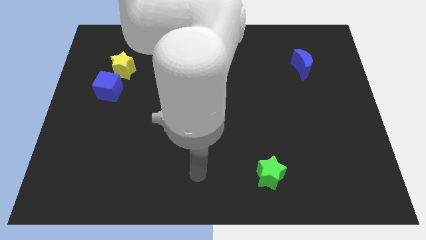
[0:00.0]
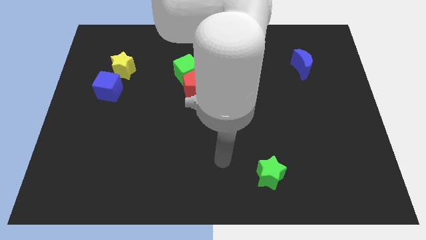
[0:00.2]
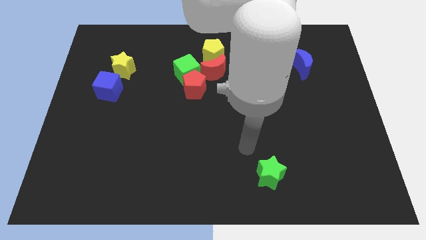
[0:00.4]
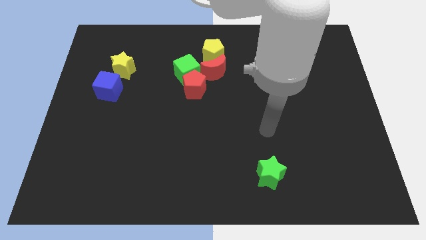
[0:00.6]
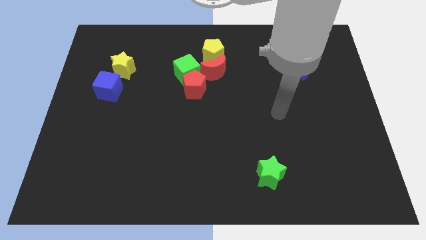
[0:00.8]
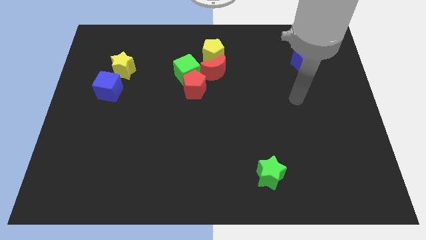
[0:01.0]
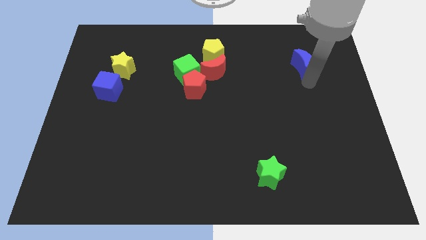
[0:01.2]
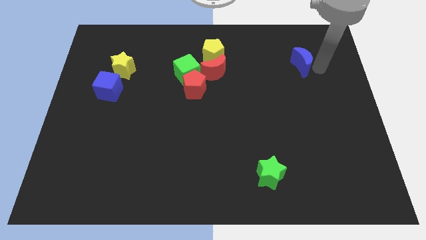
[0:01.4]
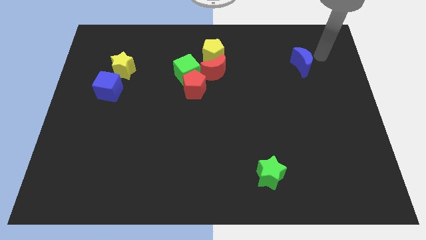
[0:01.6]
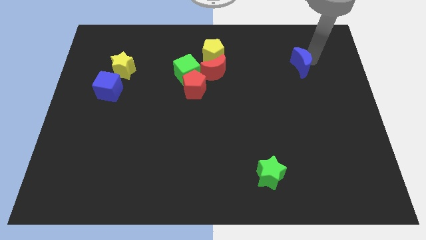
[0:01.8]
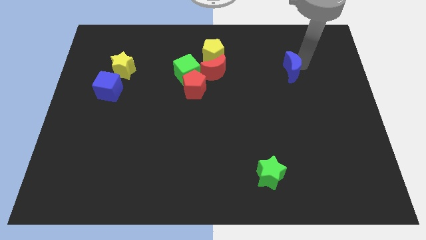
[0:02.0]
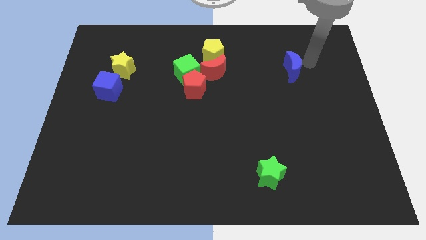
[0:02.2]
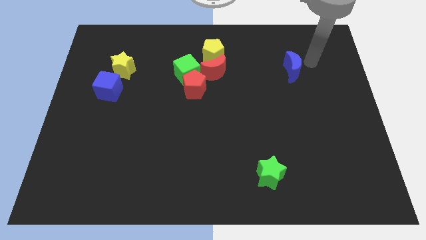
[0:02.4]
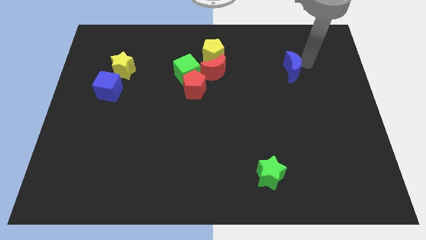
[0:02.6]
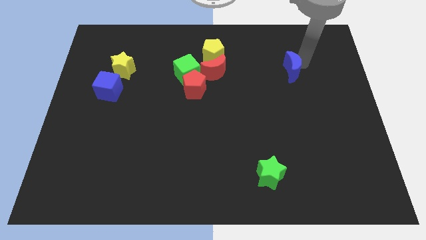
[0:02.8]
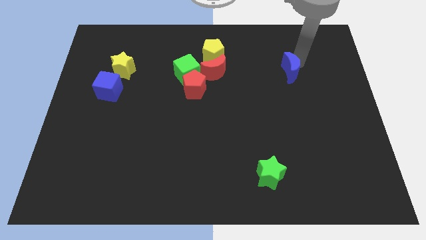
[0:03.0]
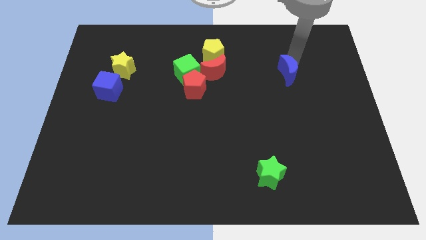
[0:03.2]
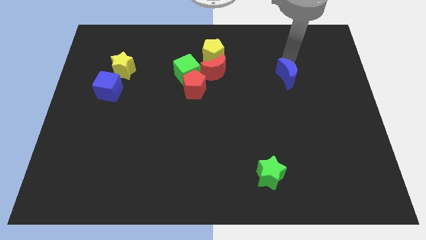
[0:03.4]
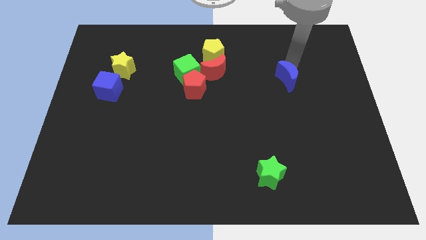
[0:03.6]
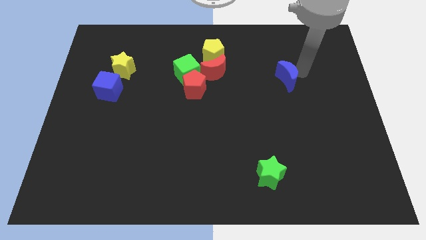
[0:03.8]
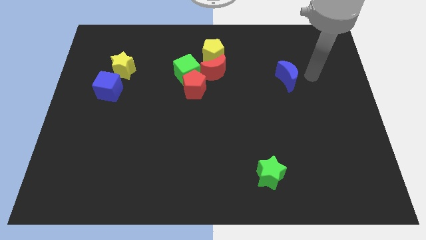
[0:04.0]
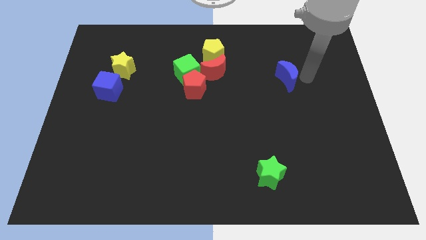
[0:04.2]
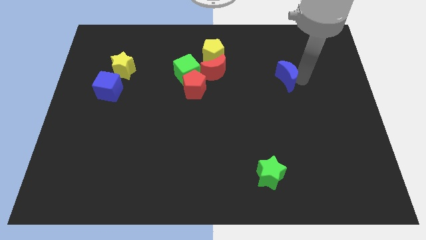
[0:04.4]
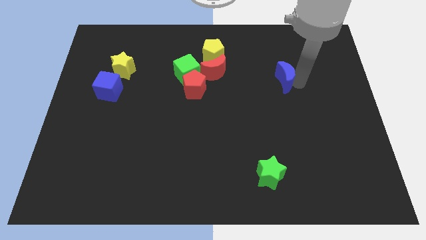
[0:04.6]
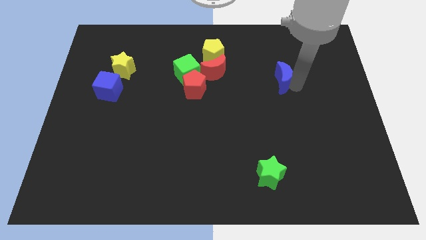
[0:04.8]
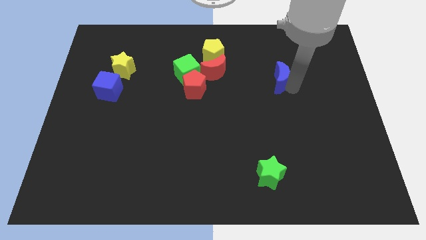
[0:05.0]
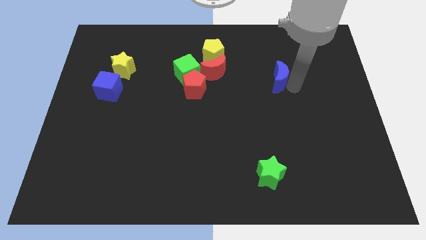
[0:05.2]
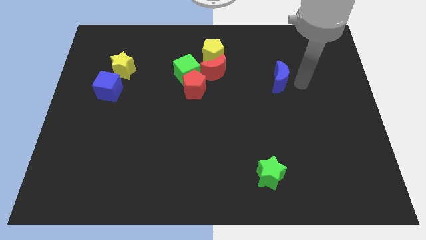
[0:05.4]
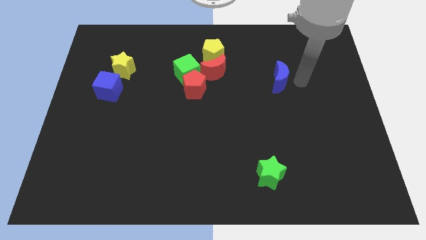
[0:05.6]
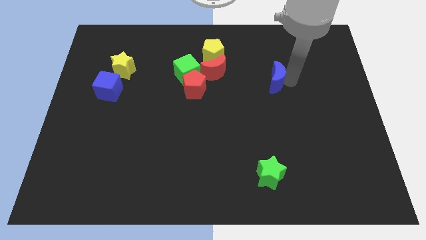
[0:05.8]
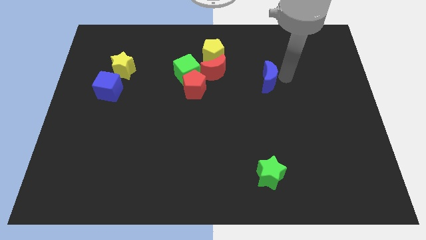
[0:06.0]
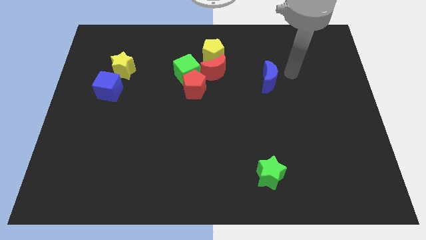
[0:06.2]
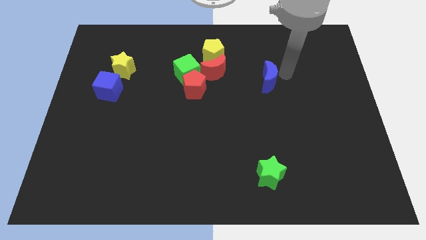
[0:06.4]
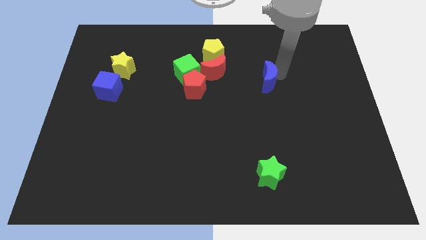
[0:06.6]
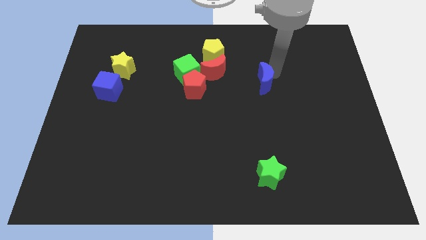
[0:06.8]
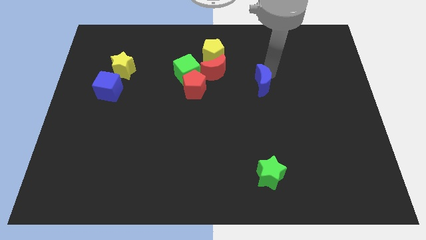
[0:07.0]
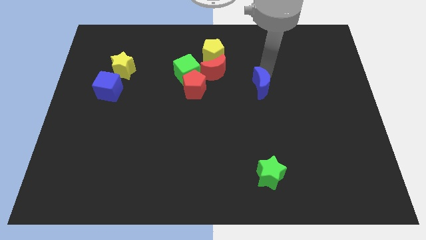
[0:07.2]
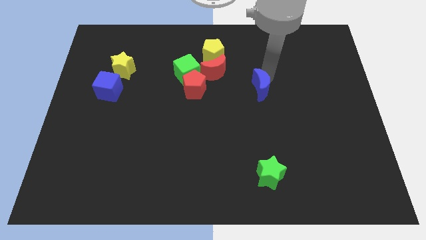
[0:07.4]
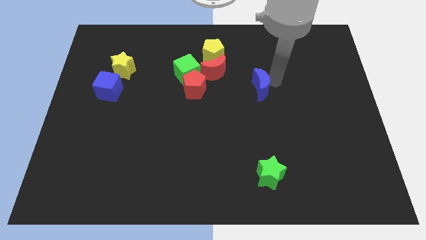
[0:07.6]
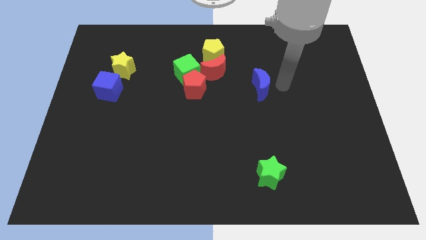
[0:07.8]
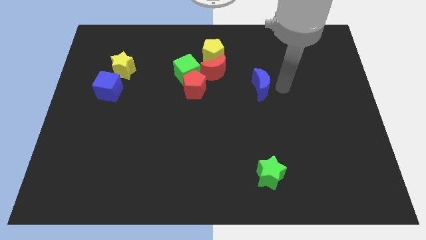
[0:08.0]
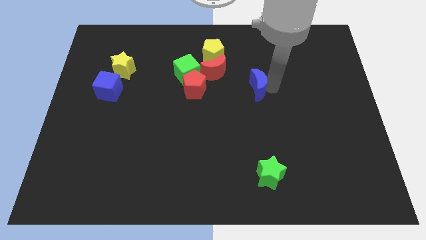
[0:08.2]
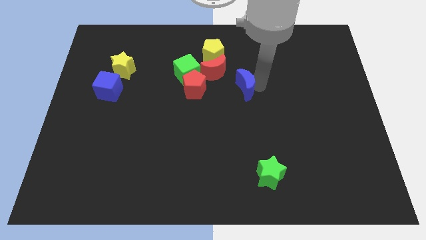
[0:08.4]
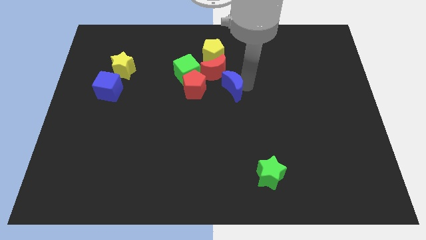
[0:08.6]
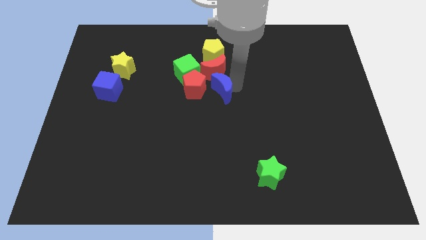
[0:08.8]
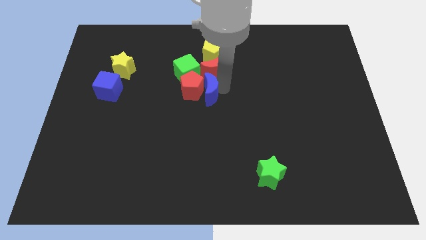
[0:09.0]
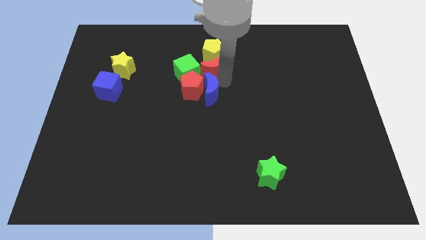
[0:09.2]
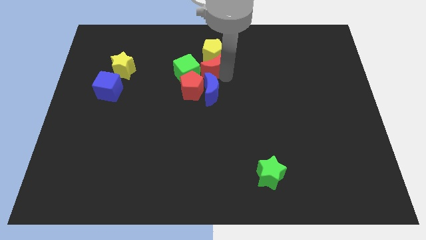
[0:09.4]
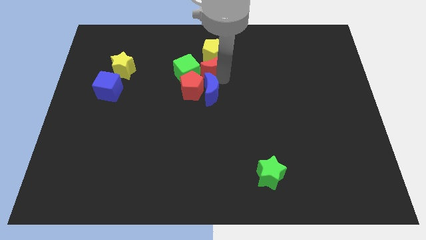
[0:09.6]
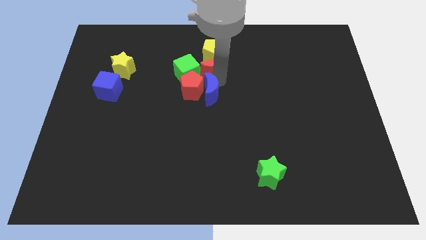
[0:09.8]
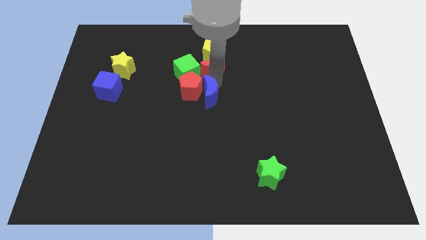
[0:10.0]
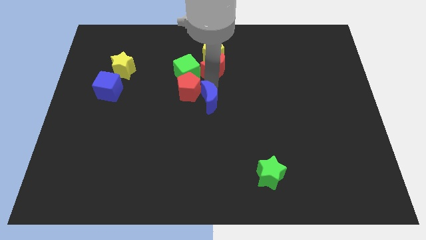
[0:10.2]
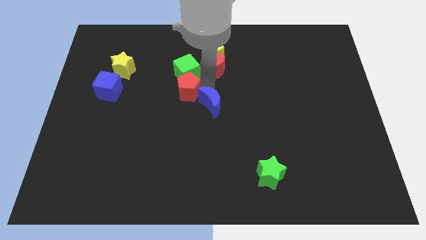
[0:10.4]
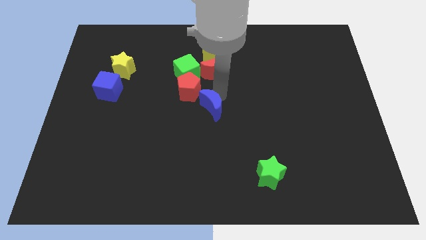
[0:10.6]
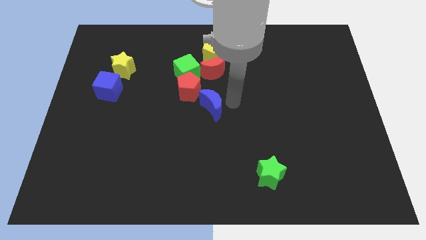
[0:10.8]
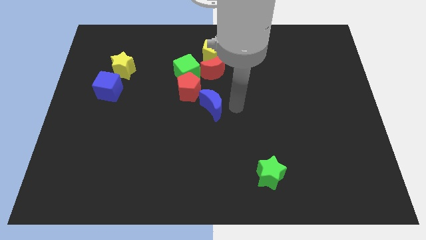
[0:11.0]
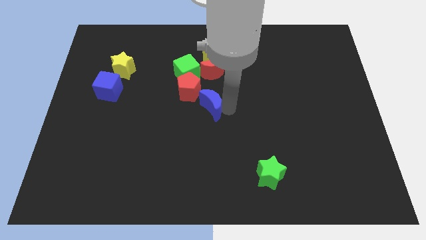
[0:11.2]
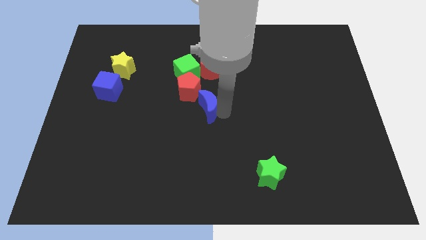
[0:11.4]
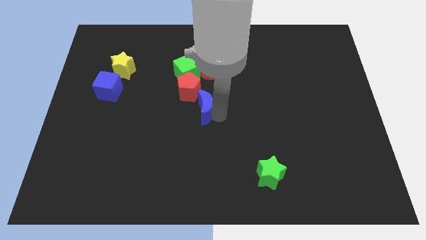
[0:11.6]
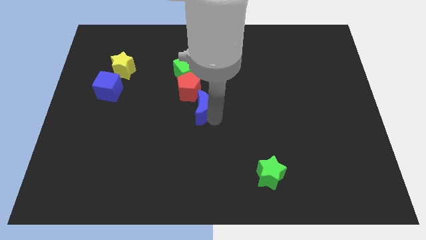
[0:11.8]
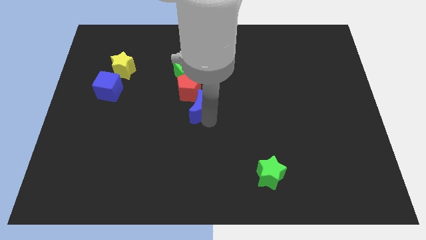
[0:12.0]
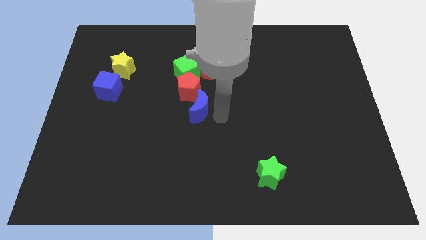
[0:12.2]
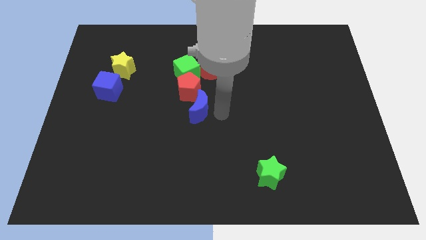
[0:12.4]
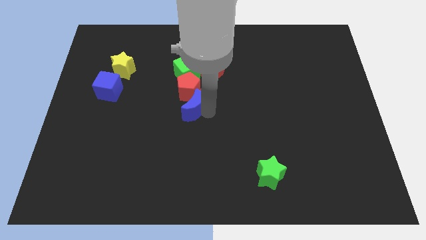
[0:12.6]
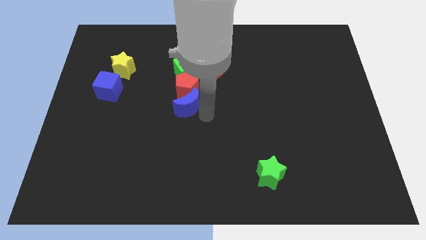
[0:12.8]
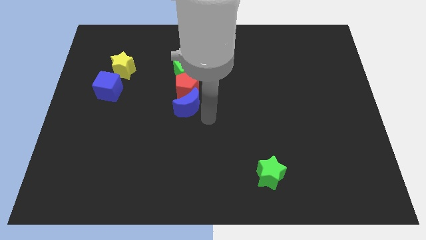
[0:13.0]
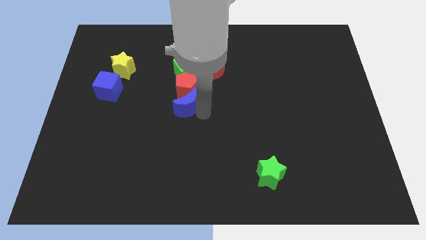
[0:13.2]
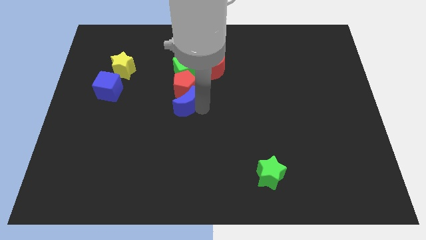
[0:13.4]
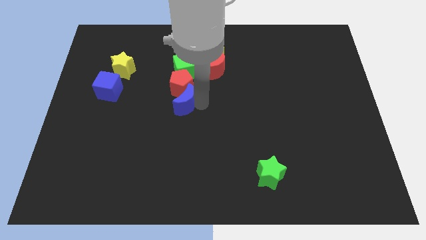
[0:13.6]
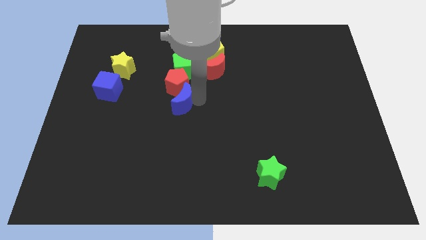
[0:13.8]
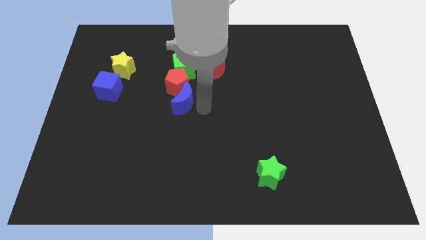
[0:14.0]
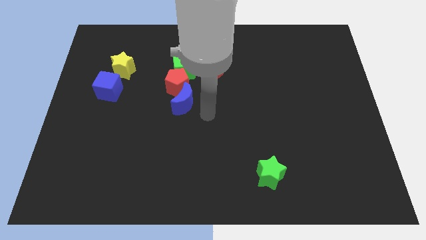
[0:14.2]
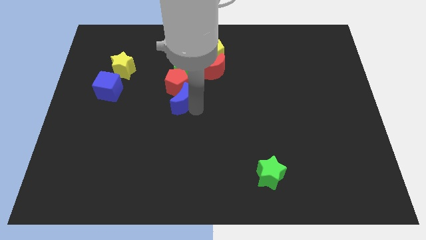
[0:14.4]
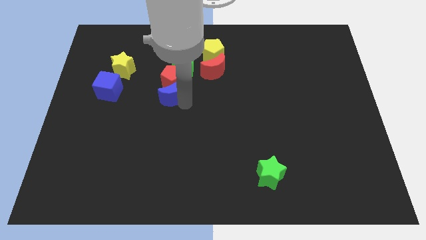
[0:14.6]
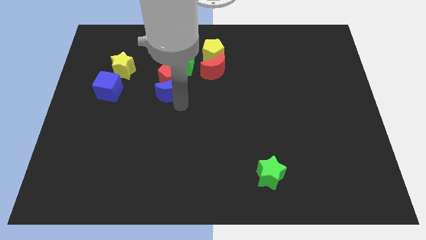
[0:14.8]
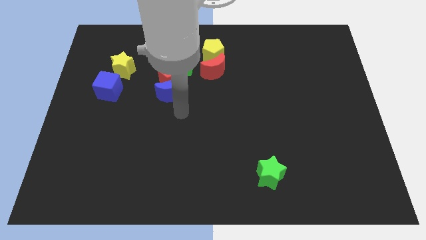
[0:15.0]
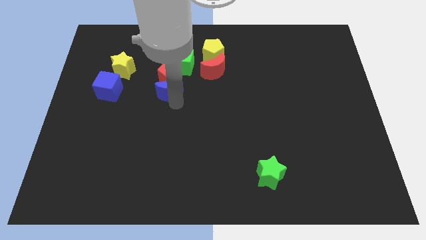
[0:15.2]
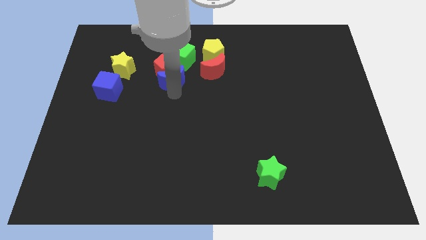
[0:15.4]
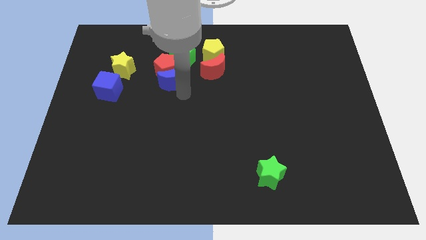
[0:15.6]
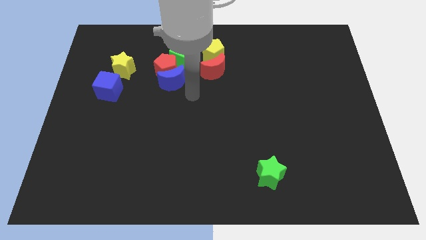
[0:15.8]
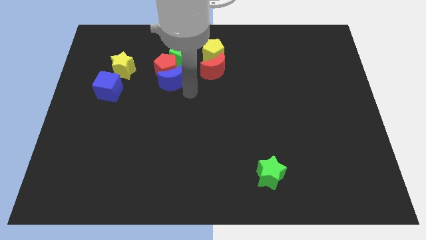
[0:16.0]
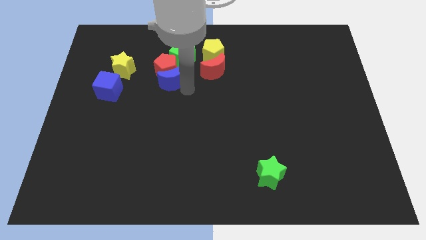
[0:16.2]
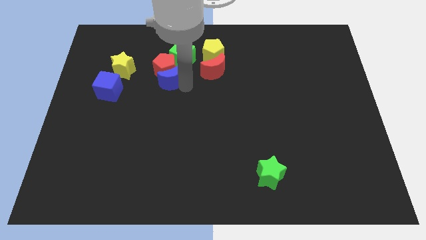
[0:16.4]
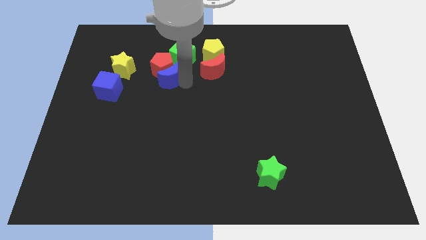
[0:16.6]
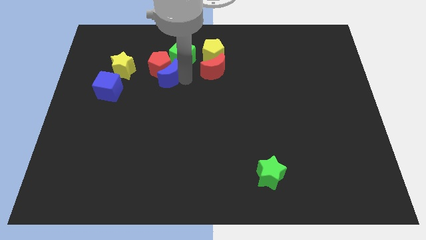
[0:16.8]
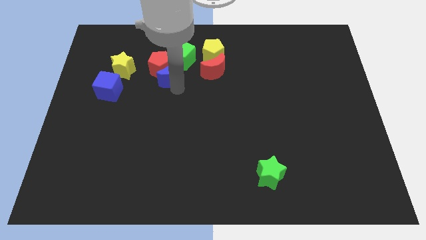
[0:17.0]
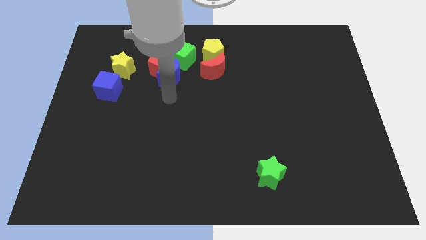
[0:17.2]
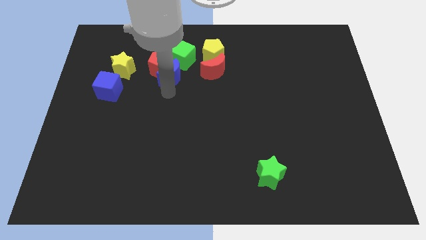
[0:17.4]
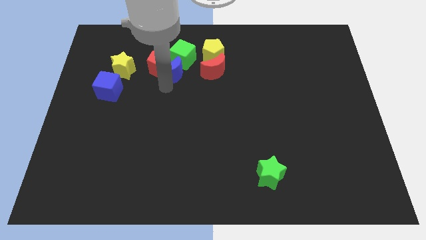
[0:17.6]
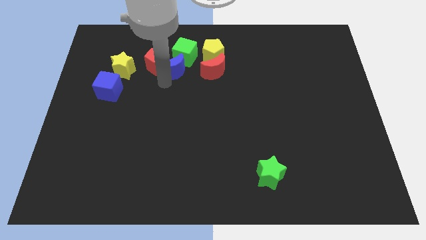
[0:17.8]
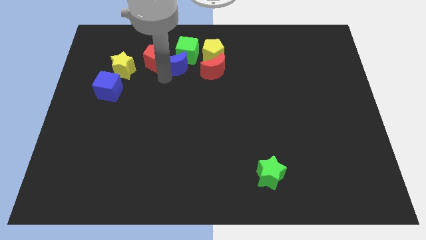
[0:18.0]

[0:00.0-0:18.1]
move the blue moon to the left side of the yellow pentagon
